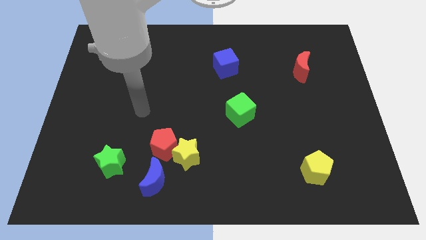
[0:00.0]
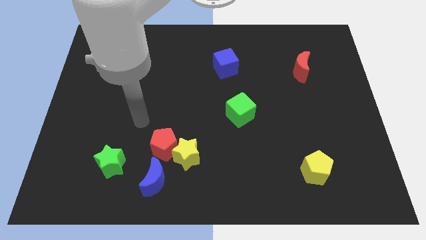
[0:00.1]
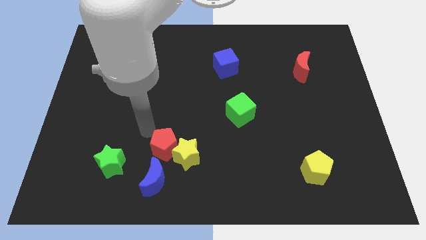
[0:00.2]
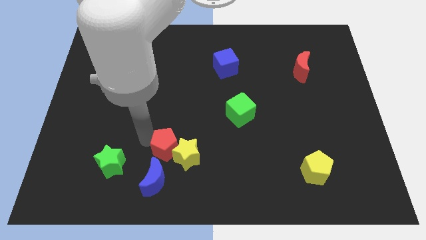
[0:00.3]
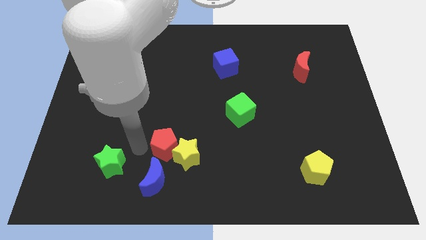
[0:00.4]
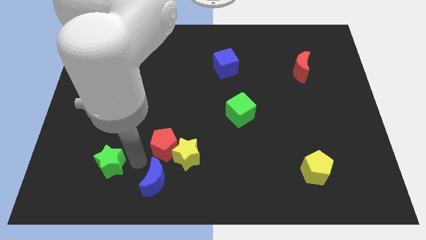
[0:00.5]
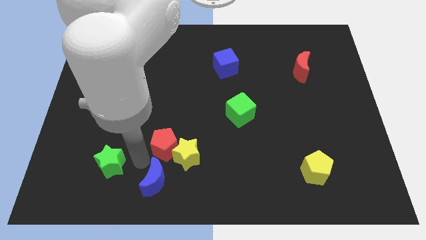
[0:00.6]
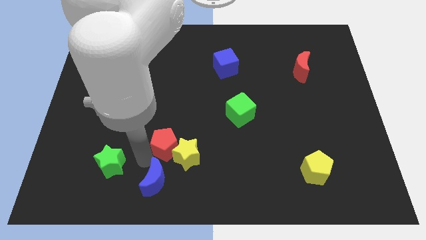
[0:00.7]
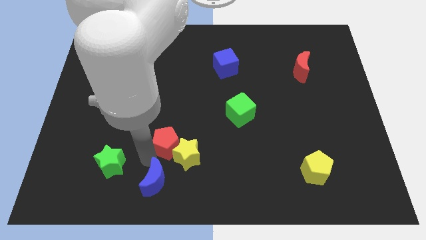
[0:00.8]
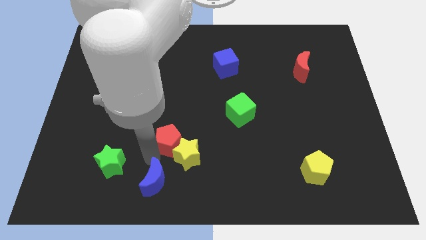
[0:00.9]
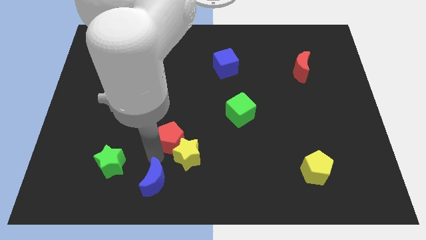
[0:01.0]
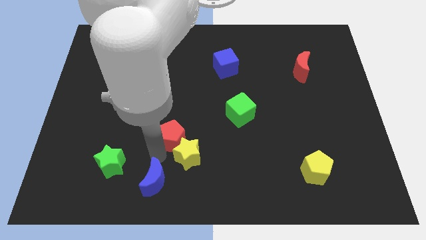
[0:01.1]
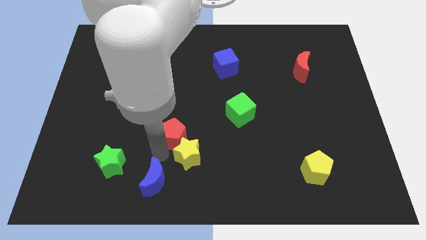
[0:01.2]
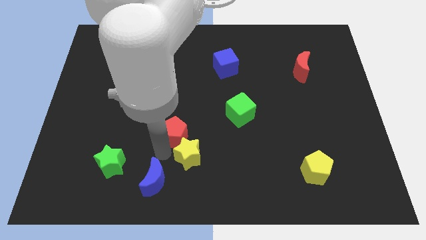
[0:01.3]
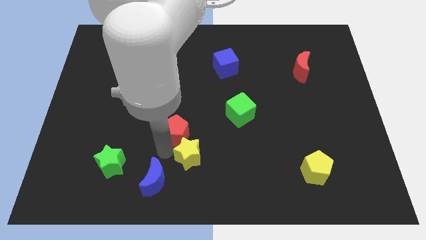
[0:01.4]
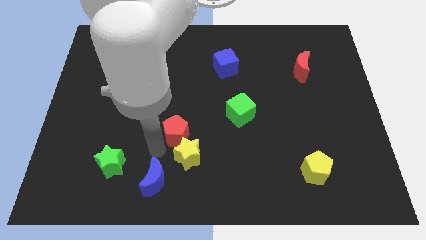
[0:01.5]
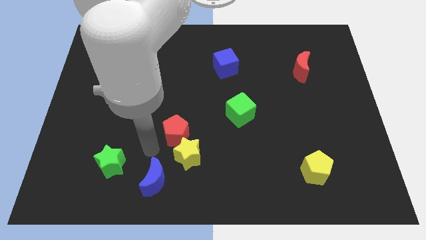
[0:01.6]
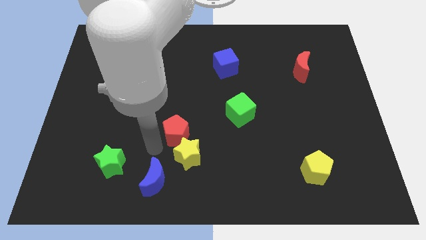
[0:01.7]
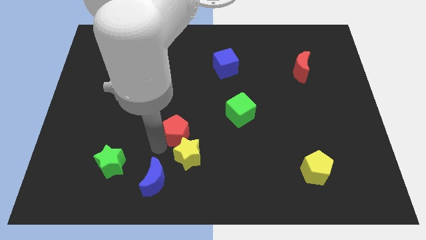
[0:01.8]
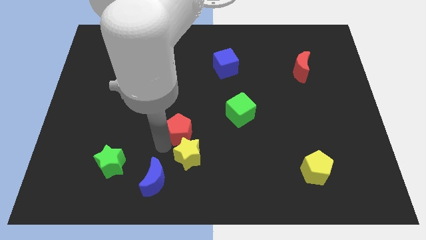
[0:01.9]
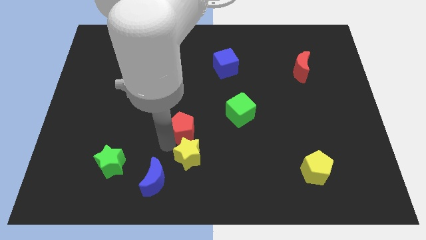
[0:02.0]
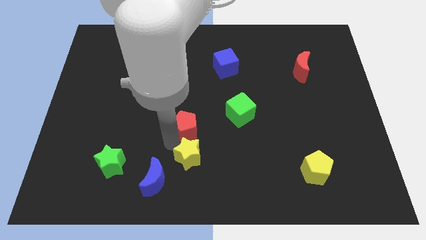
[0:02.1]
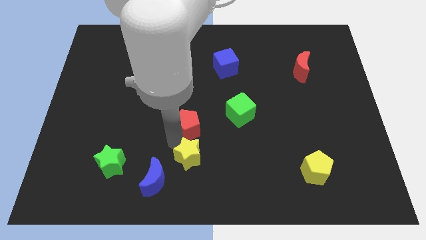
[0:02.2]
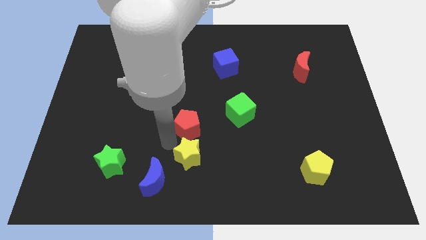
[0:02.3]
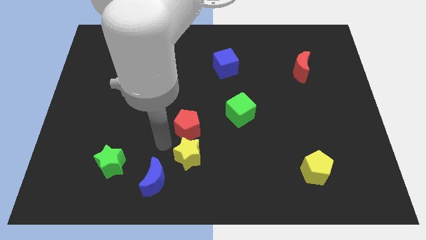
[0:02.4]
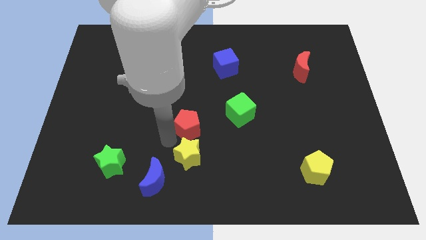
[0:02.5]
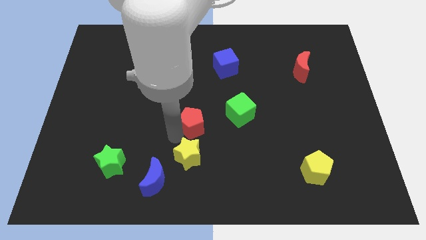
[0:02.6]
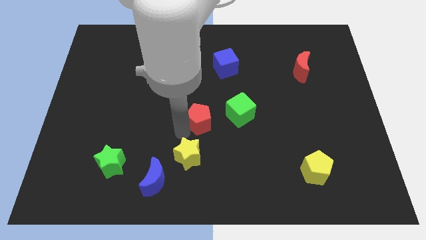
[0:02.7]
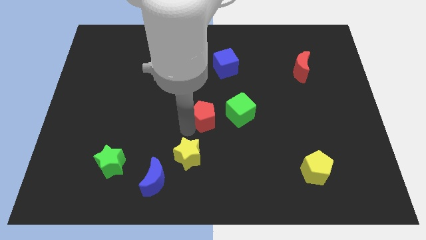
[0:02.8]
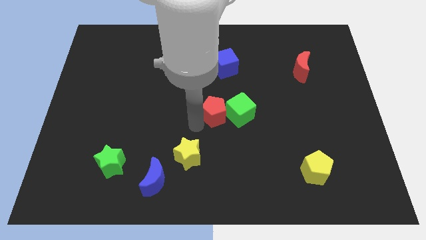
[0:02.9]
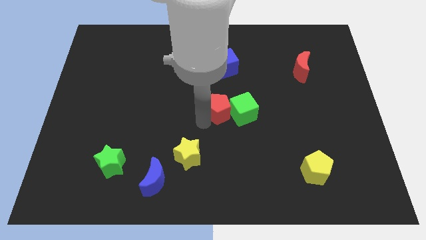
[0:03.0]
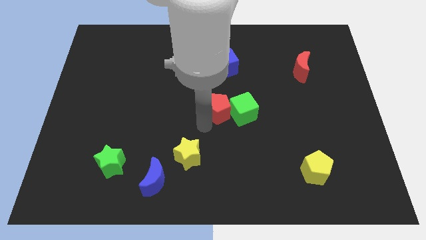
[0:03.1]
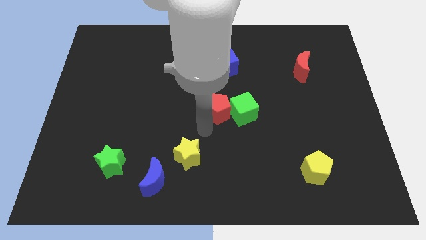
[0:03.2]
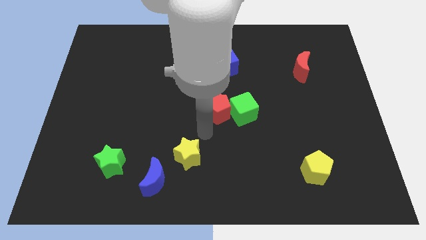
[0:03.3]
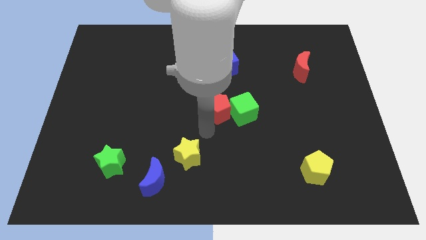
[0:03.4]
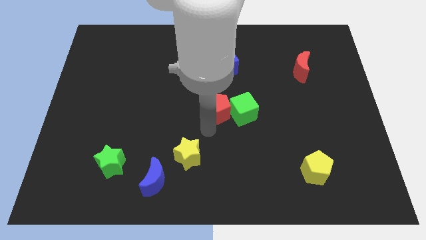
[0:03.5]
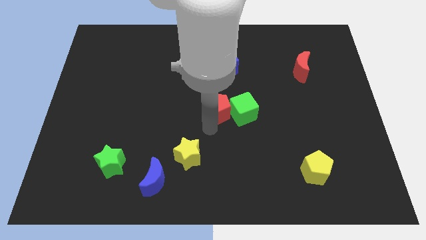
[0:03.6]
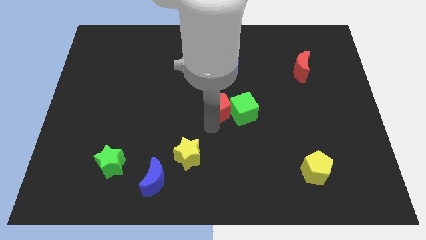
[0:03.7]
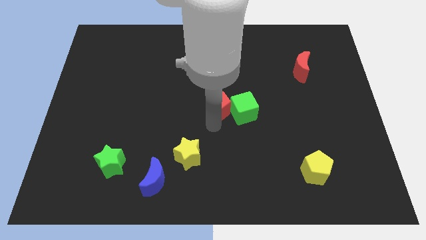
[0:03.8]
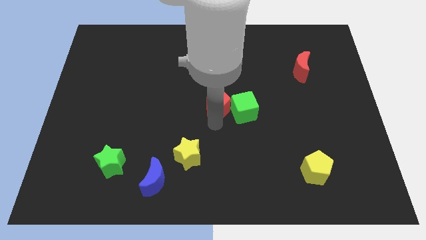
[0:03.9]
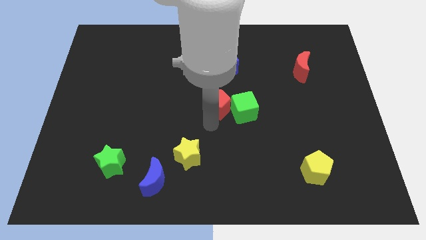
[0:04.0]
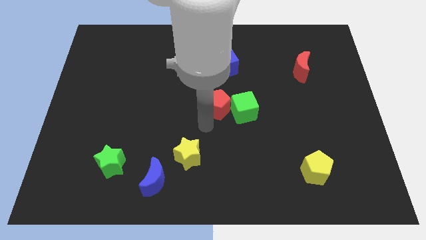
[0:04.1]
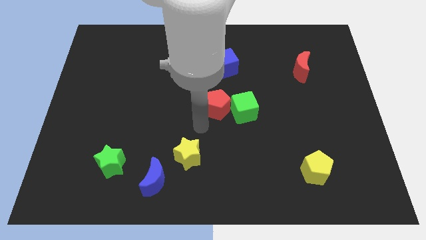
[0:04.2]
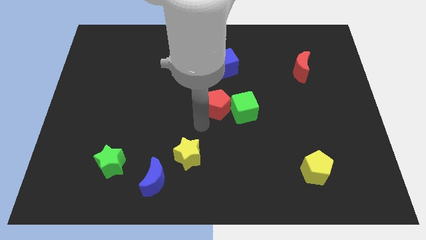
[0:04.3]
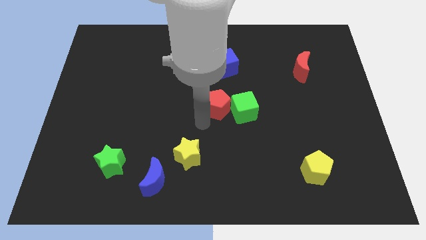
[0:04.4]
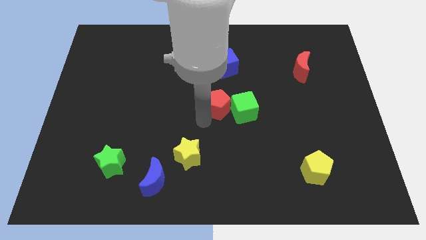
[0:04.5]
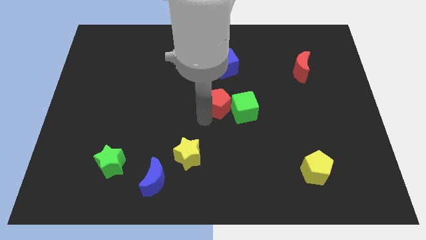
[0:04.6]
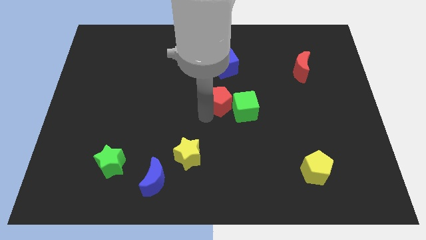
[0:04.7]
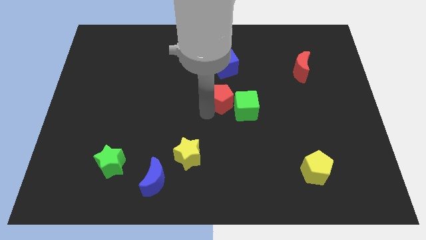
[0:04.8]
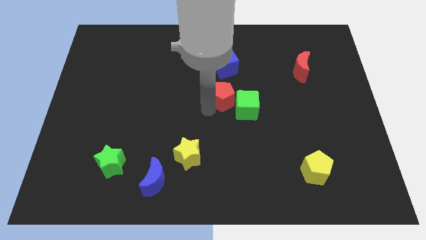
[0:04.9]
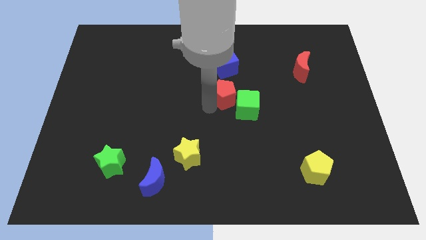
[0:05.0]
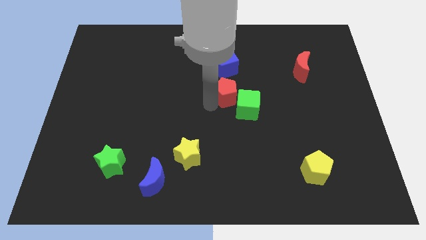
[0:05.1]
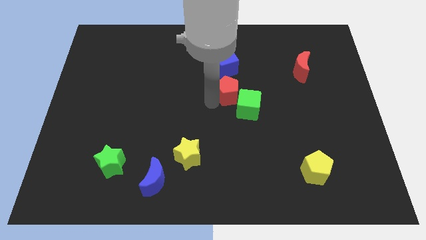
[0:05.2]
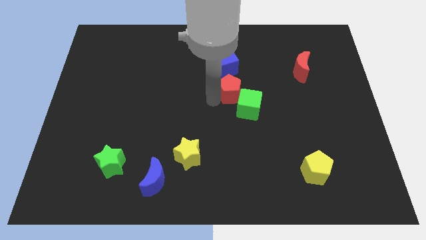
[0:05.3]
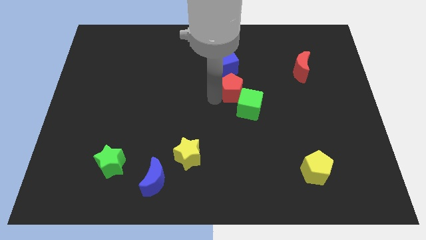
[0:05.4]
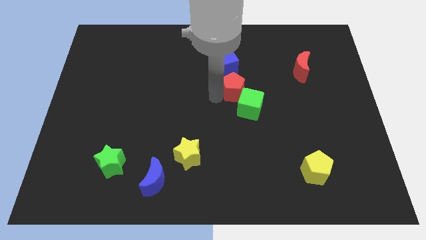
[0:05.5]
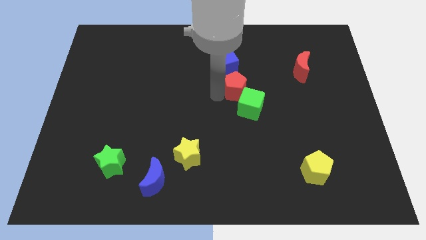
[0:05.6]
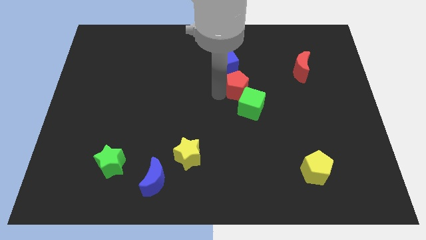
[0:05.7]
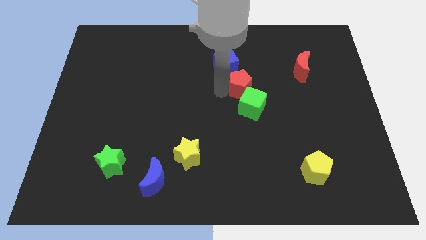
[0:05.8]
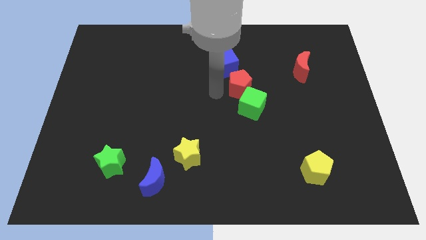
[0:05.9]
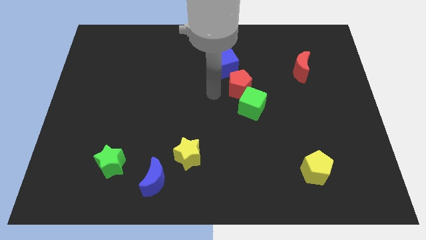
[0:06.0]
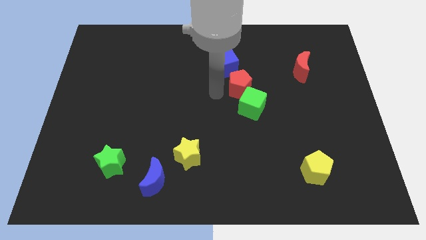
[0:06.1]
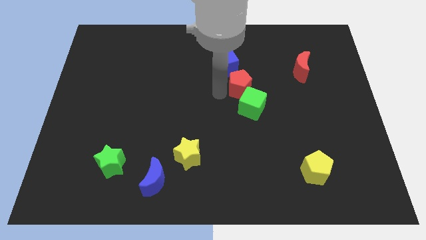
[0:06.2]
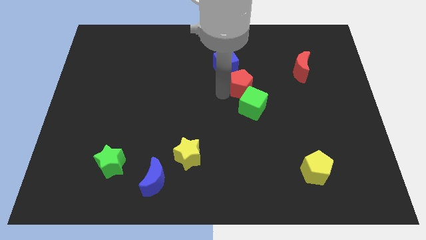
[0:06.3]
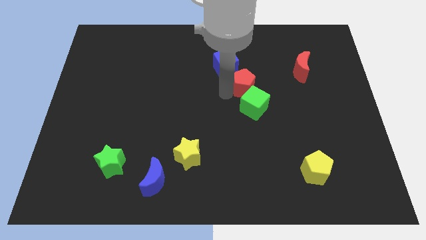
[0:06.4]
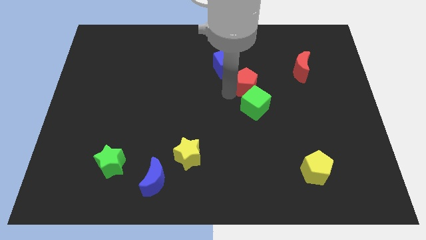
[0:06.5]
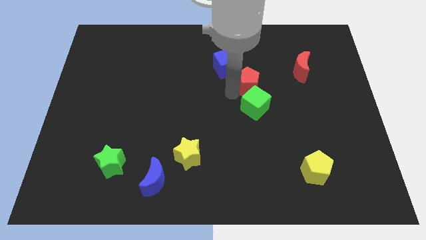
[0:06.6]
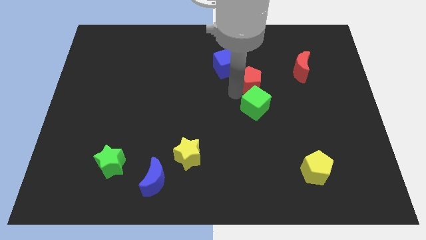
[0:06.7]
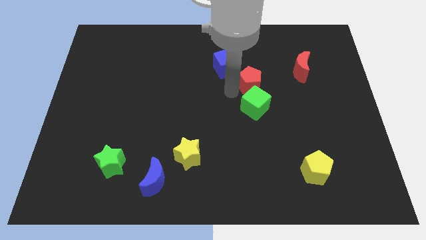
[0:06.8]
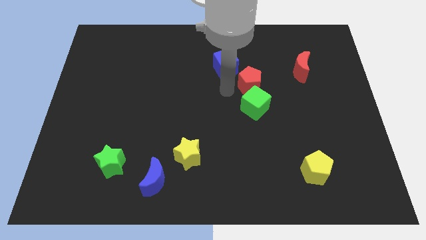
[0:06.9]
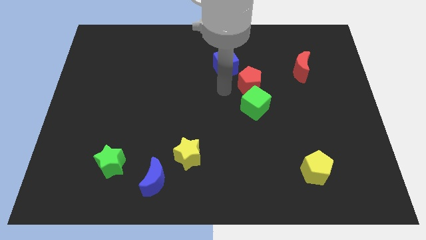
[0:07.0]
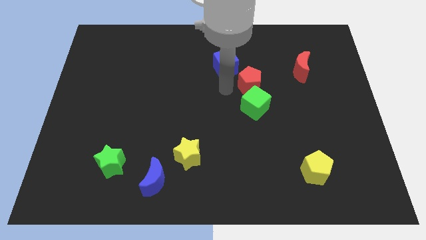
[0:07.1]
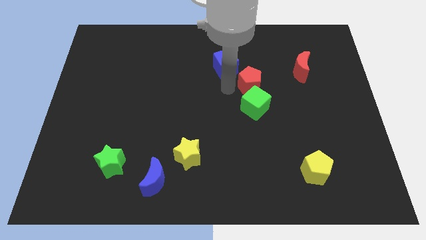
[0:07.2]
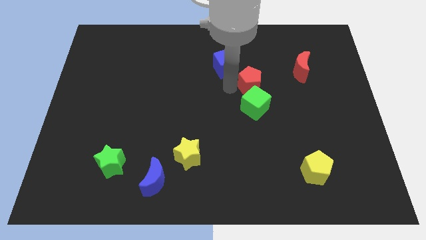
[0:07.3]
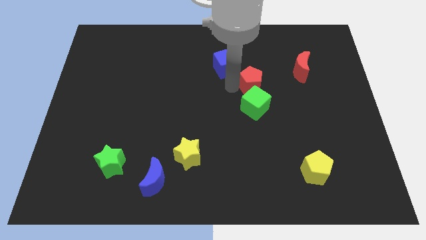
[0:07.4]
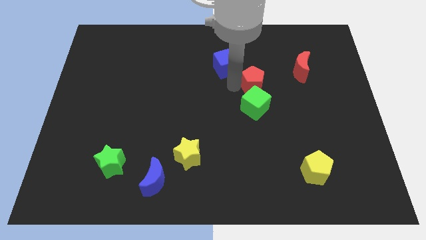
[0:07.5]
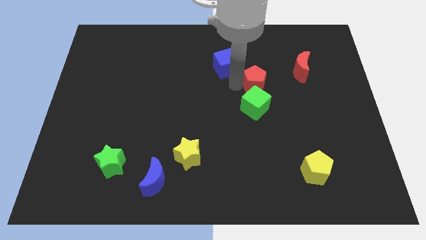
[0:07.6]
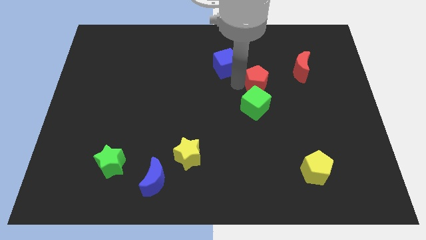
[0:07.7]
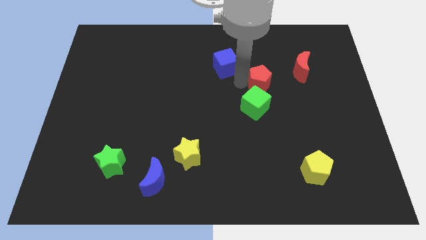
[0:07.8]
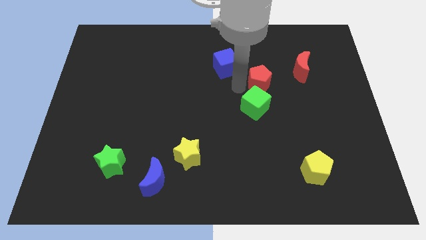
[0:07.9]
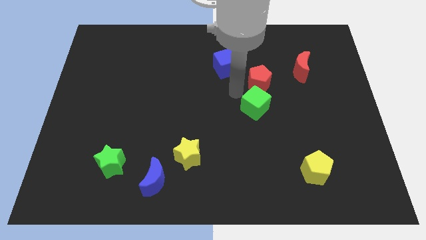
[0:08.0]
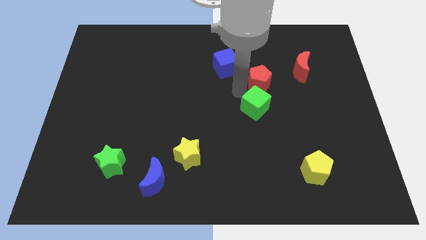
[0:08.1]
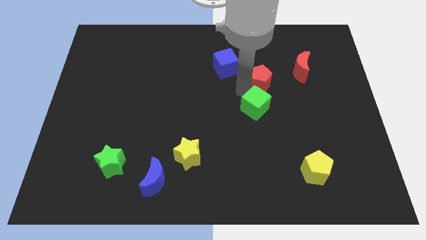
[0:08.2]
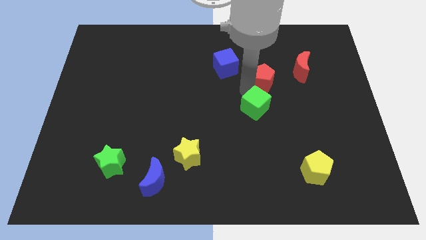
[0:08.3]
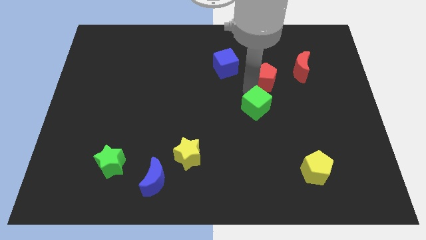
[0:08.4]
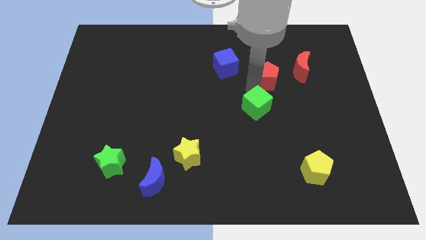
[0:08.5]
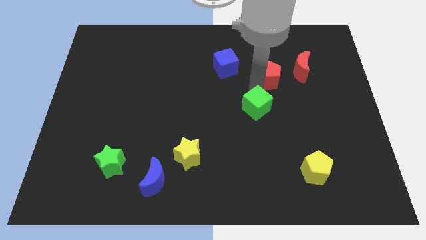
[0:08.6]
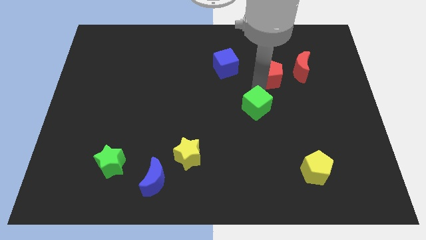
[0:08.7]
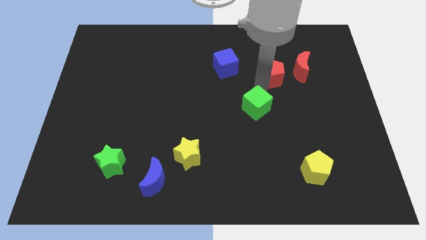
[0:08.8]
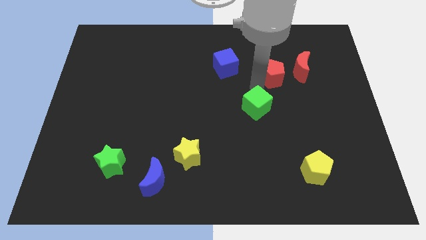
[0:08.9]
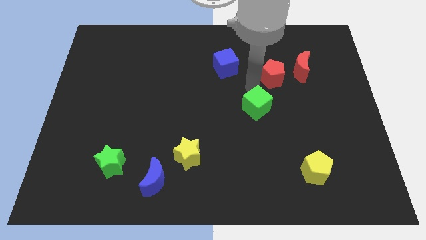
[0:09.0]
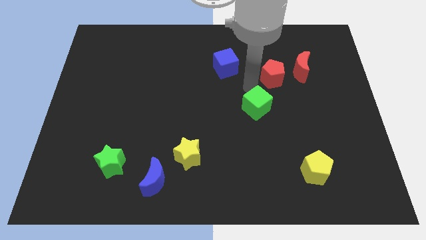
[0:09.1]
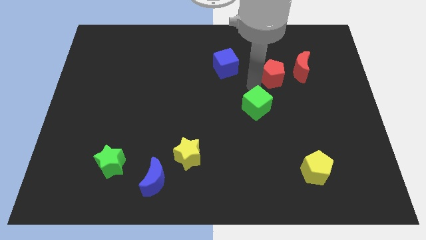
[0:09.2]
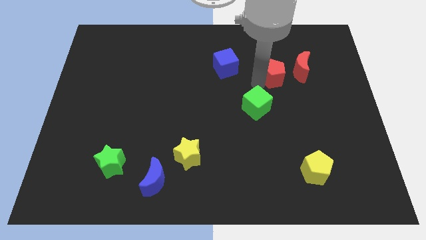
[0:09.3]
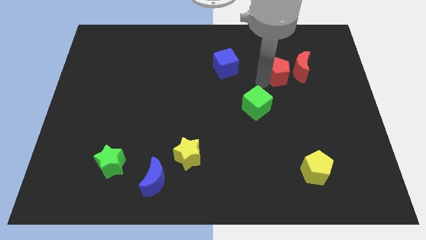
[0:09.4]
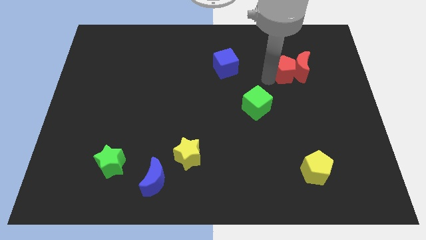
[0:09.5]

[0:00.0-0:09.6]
put the red pentagon close to the red moon
